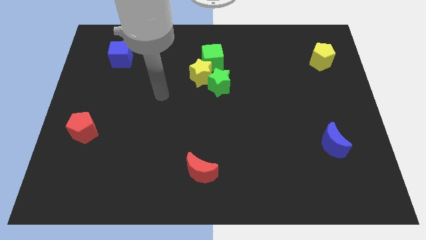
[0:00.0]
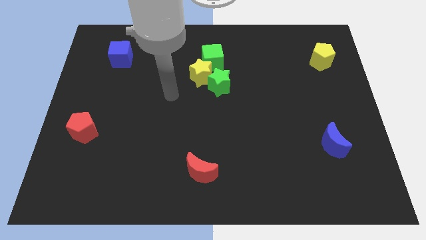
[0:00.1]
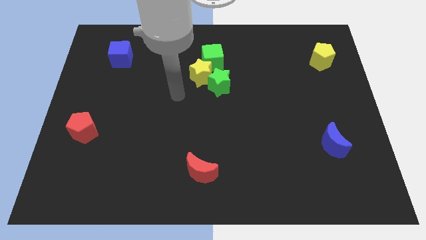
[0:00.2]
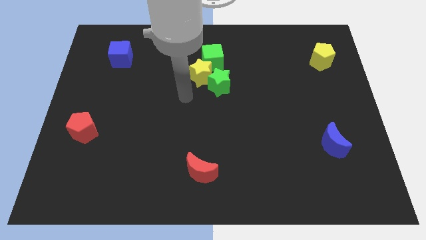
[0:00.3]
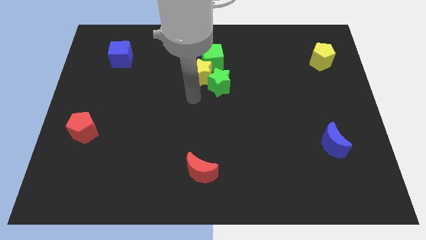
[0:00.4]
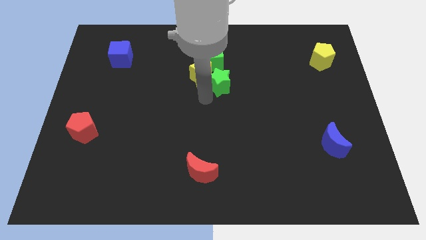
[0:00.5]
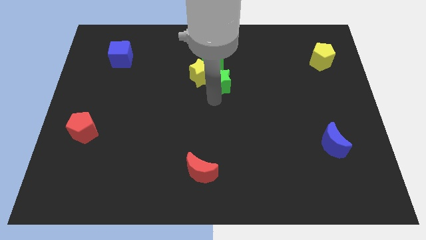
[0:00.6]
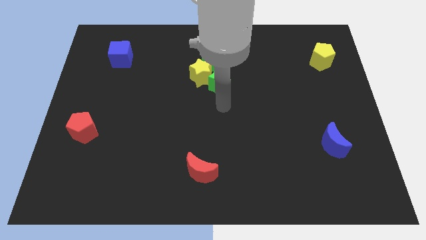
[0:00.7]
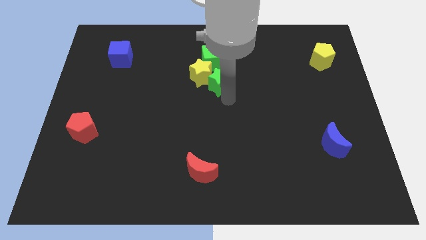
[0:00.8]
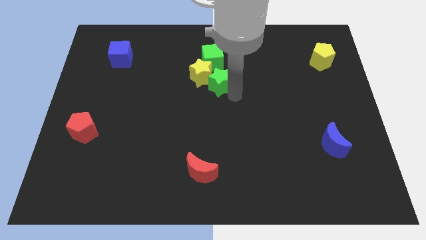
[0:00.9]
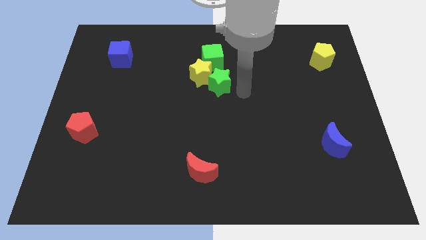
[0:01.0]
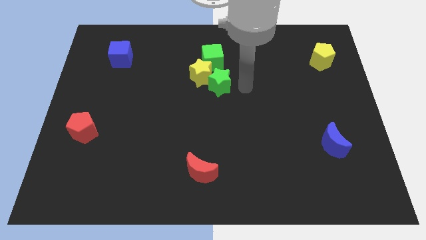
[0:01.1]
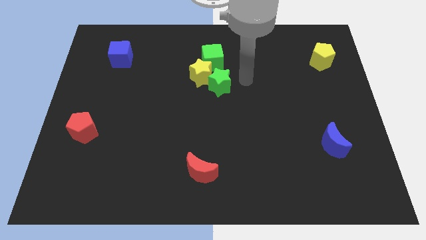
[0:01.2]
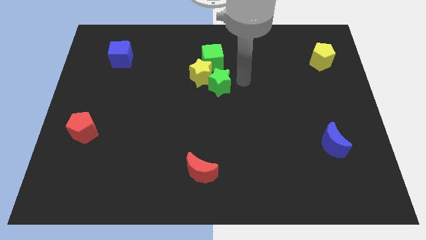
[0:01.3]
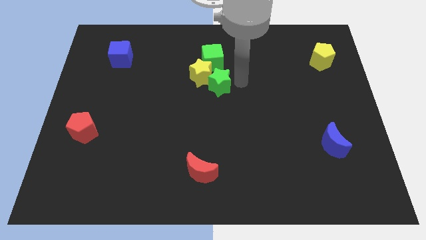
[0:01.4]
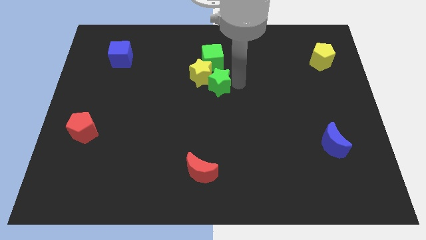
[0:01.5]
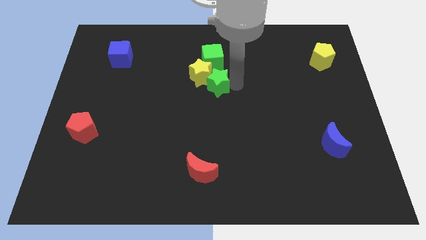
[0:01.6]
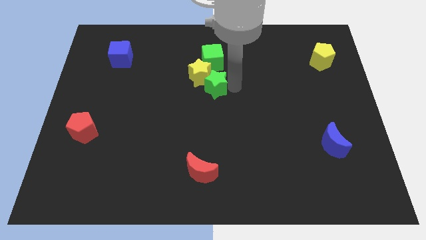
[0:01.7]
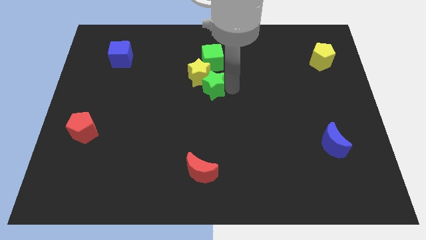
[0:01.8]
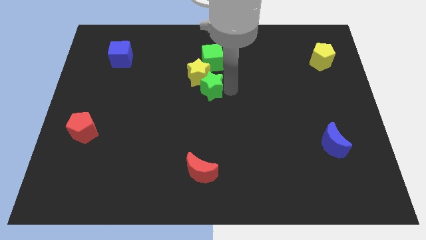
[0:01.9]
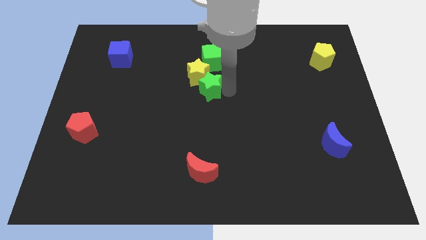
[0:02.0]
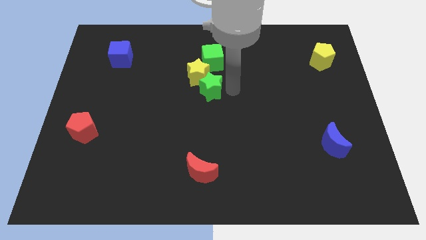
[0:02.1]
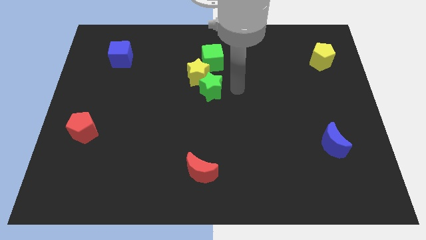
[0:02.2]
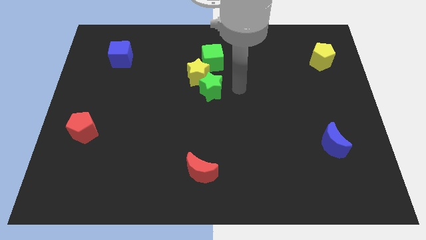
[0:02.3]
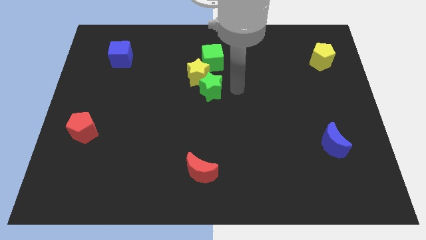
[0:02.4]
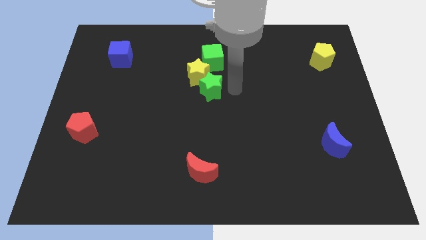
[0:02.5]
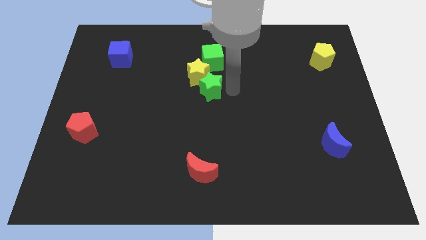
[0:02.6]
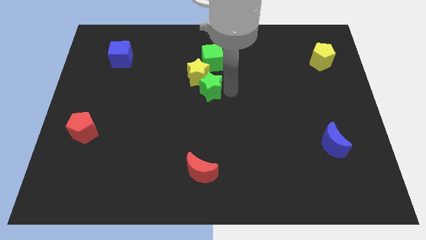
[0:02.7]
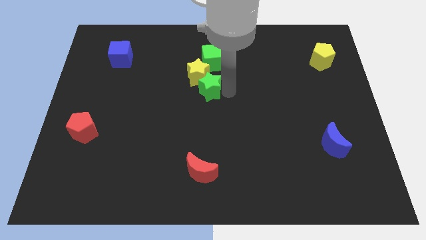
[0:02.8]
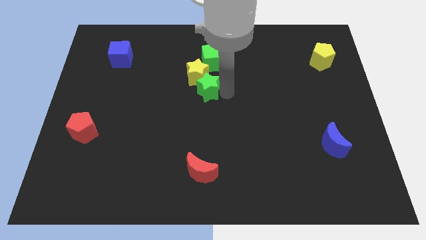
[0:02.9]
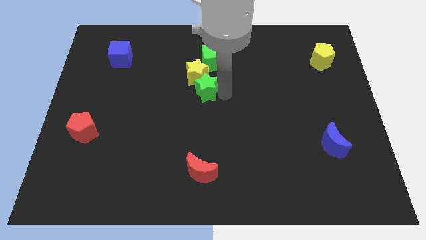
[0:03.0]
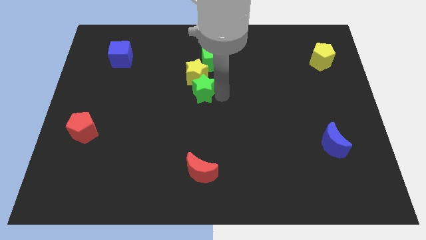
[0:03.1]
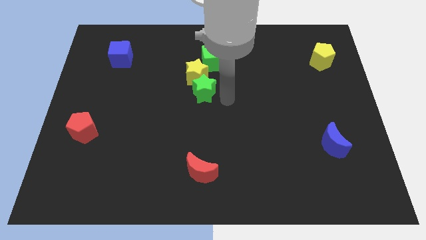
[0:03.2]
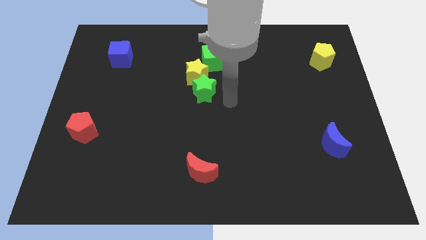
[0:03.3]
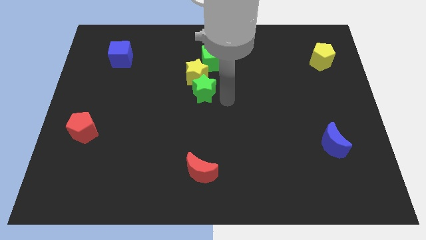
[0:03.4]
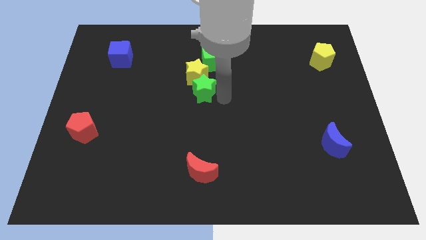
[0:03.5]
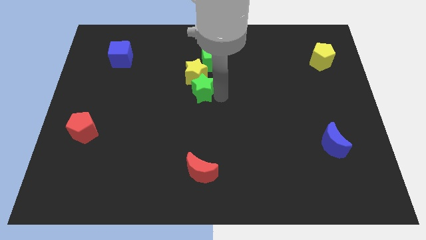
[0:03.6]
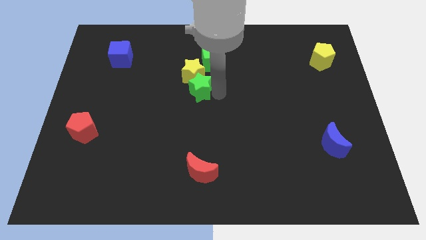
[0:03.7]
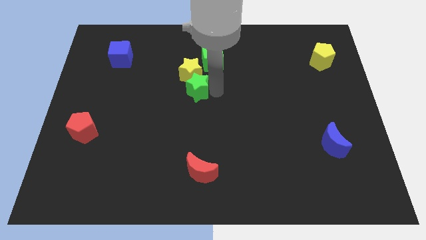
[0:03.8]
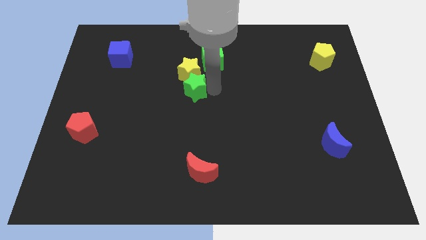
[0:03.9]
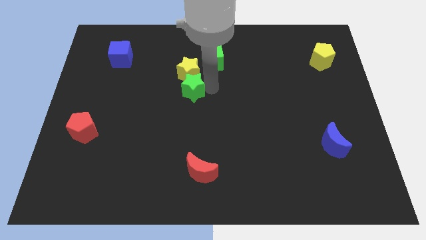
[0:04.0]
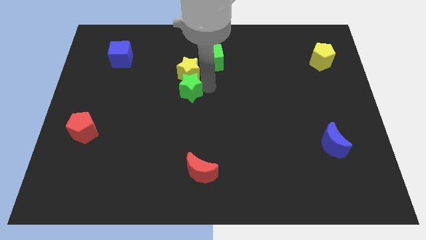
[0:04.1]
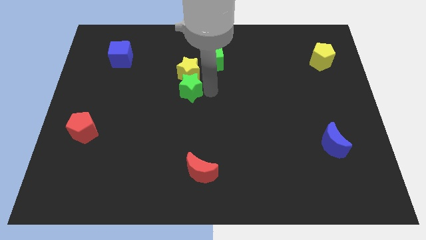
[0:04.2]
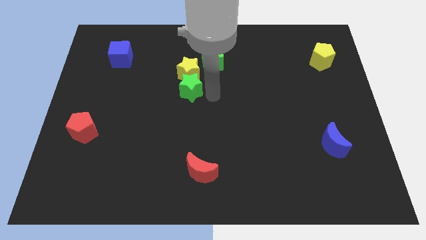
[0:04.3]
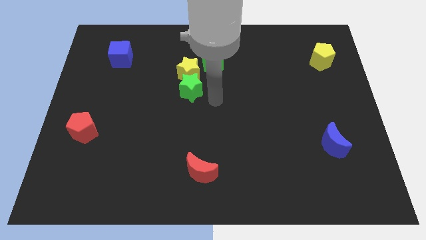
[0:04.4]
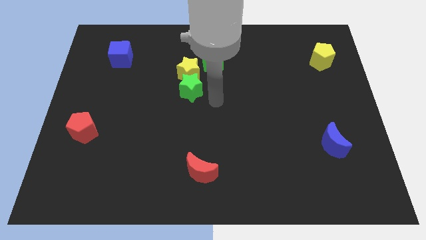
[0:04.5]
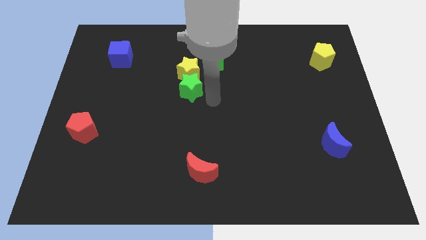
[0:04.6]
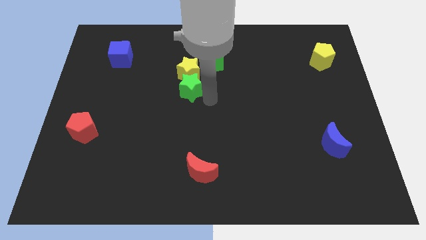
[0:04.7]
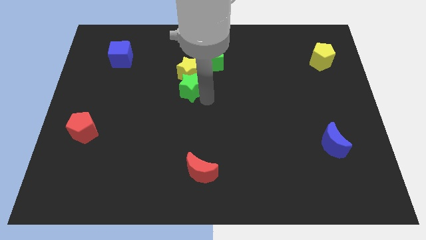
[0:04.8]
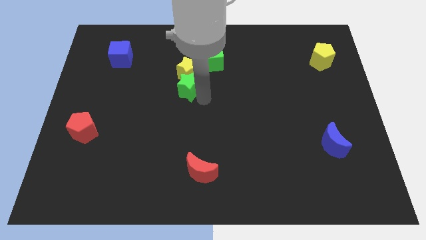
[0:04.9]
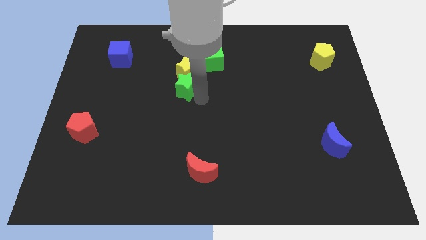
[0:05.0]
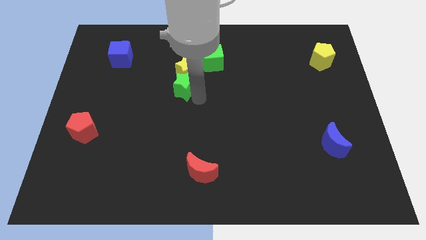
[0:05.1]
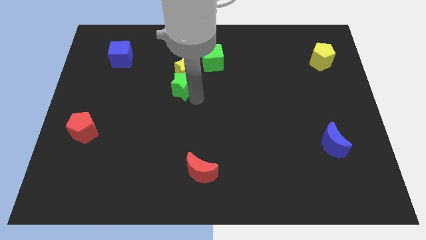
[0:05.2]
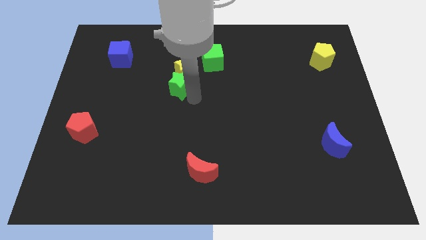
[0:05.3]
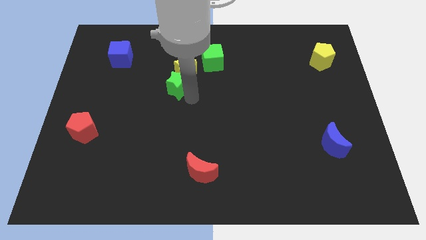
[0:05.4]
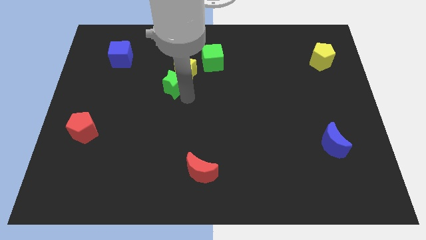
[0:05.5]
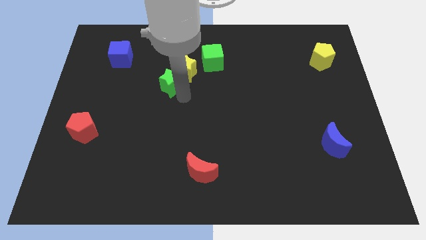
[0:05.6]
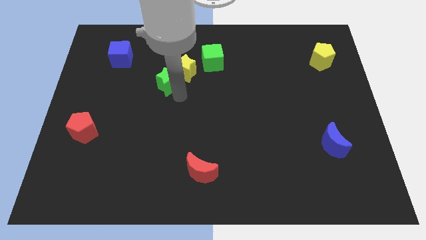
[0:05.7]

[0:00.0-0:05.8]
push the green star to the left side of the yellow star

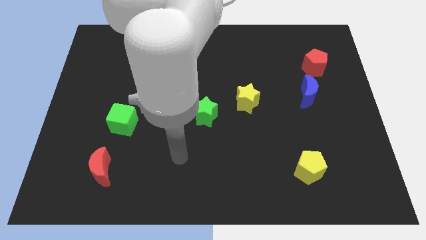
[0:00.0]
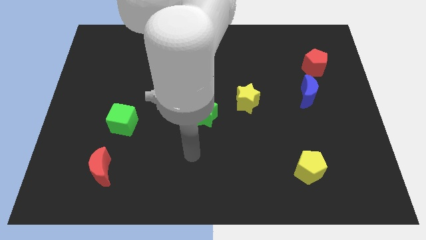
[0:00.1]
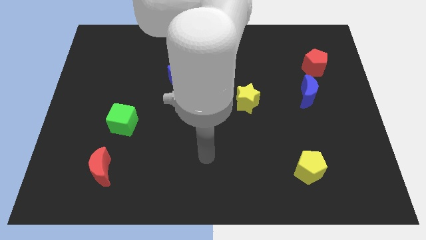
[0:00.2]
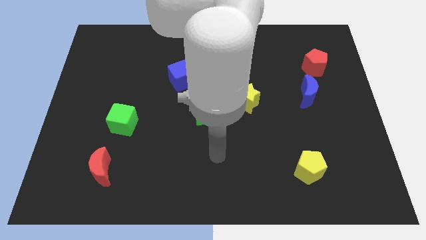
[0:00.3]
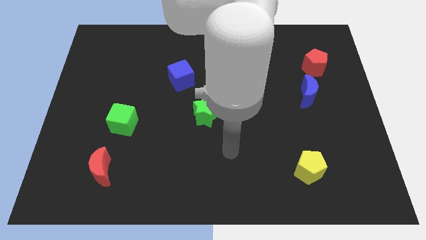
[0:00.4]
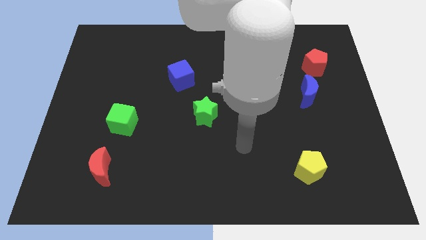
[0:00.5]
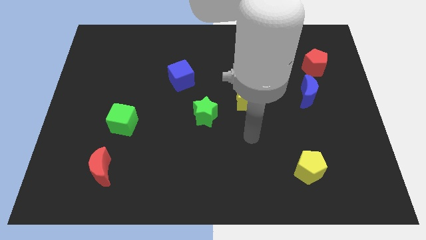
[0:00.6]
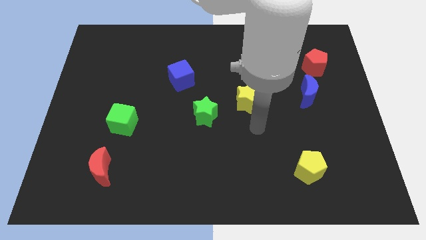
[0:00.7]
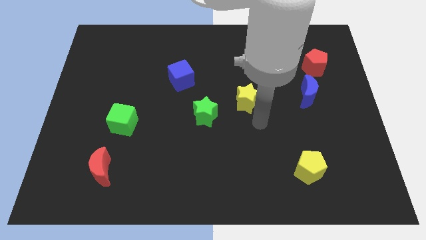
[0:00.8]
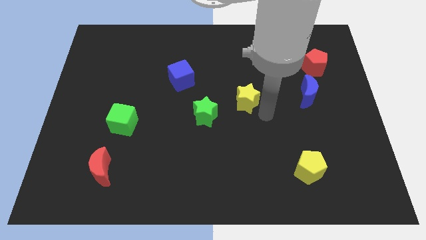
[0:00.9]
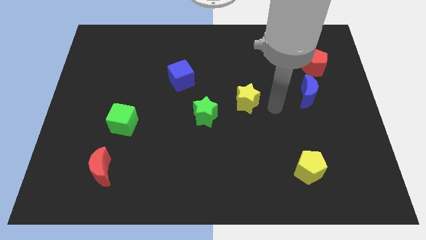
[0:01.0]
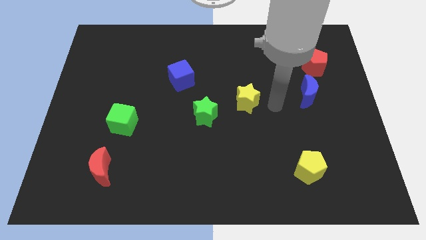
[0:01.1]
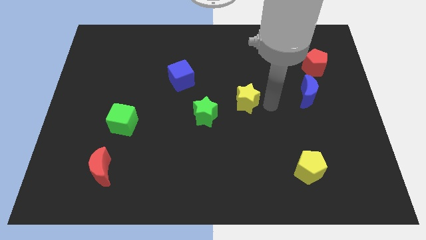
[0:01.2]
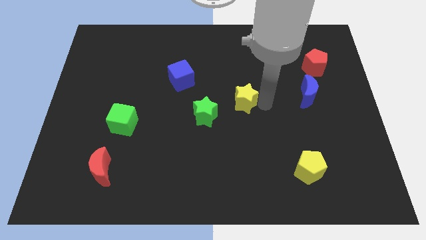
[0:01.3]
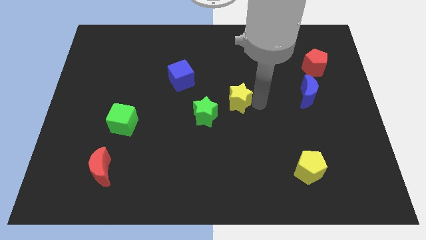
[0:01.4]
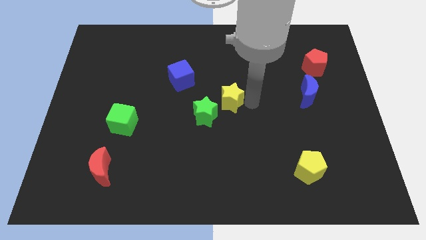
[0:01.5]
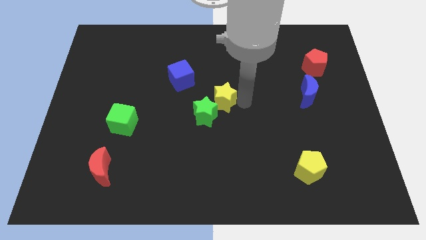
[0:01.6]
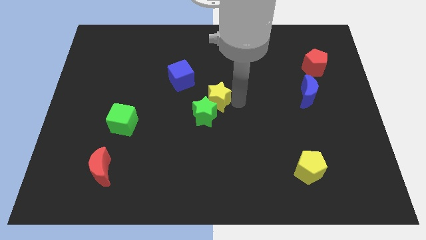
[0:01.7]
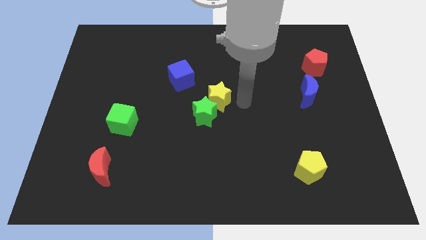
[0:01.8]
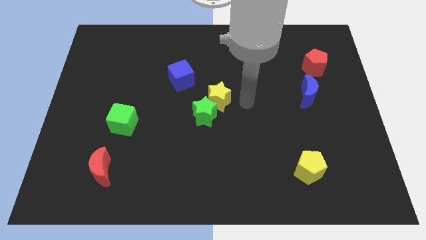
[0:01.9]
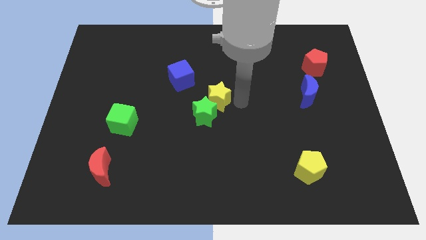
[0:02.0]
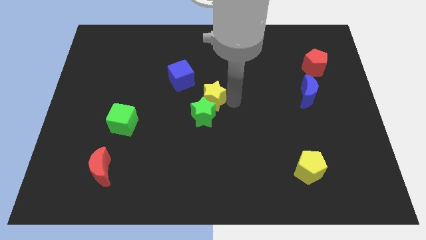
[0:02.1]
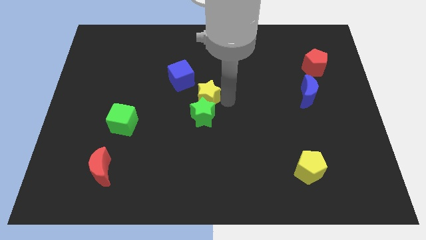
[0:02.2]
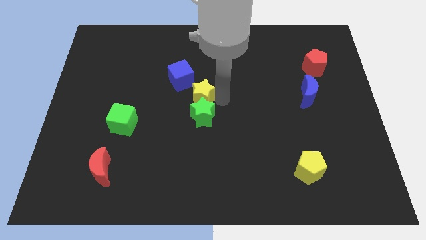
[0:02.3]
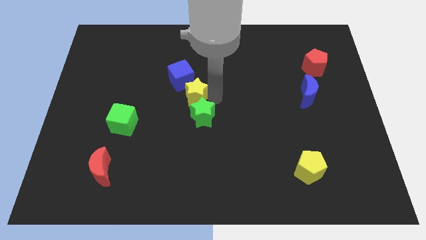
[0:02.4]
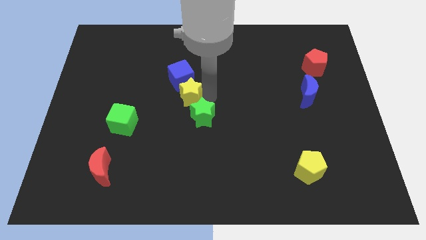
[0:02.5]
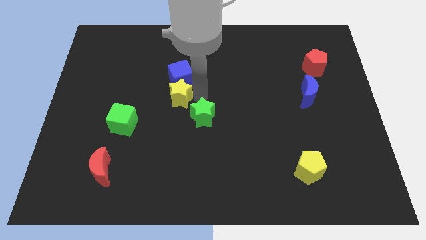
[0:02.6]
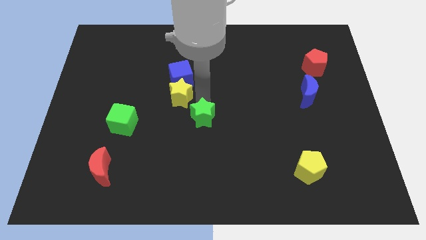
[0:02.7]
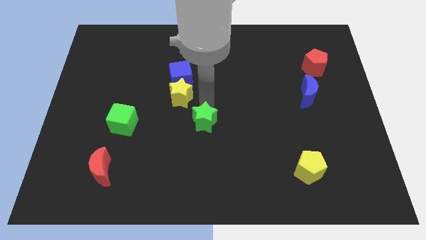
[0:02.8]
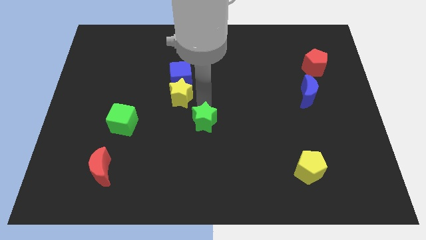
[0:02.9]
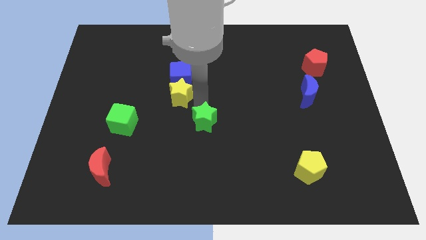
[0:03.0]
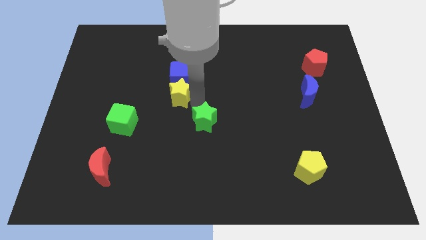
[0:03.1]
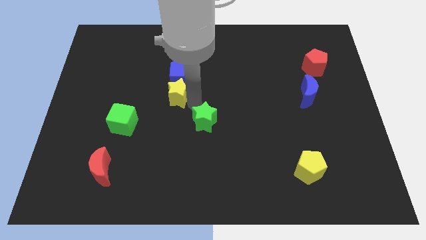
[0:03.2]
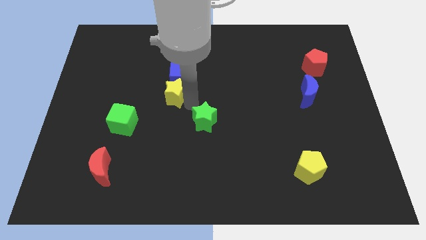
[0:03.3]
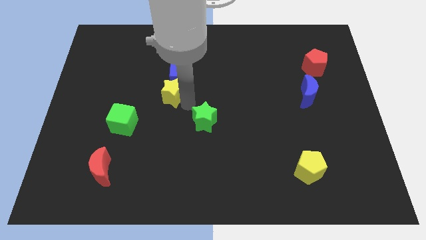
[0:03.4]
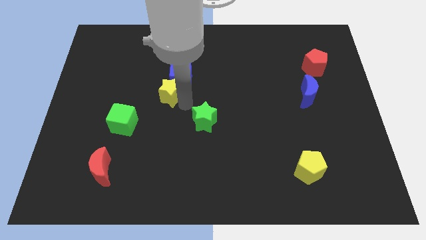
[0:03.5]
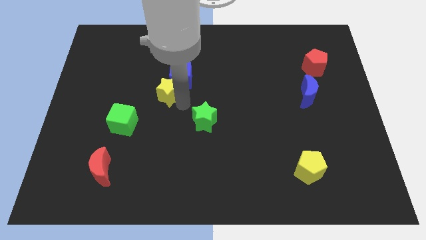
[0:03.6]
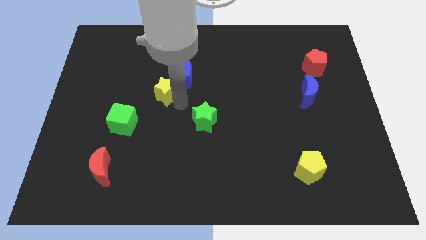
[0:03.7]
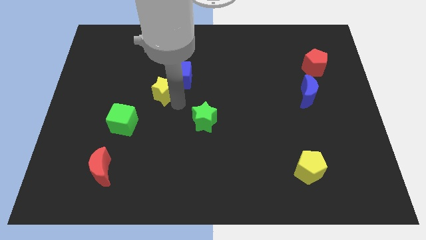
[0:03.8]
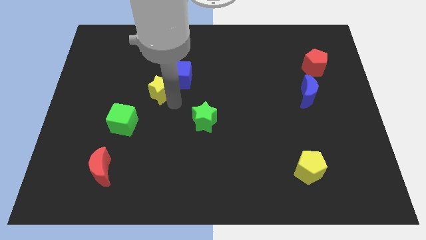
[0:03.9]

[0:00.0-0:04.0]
move the yellow star just left of the blue cube
